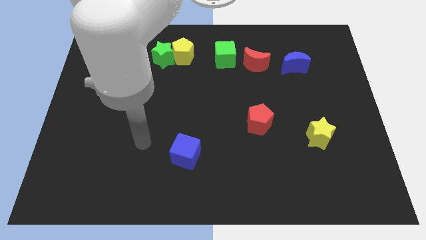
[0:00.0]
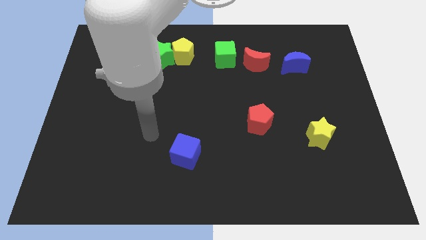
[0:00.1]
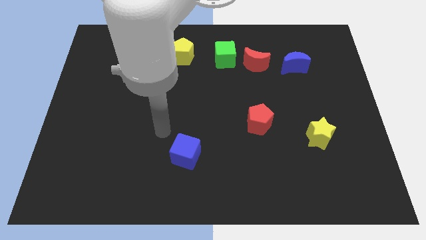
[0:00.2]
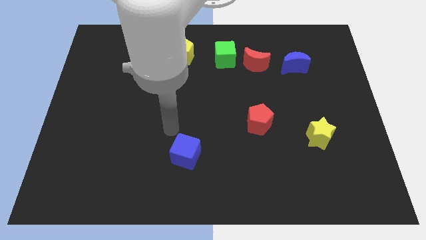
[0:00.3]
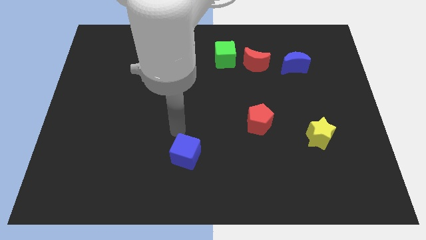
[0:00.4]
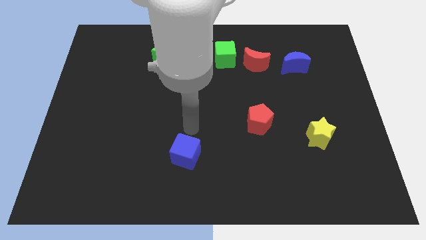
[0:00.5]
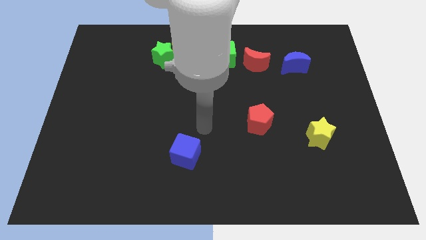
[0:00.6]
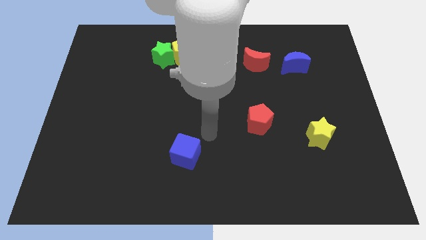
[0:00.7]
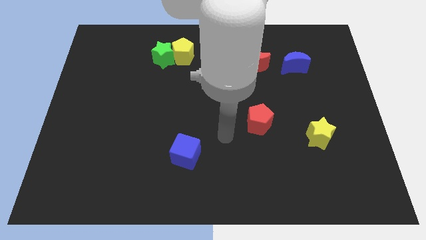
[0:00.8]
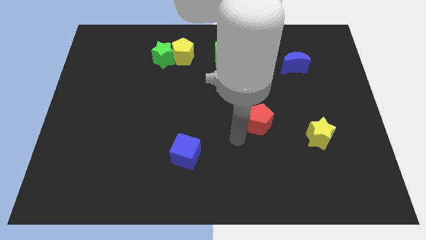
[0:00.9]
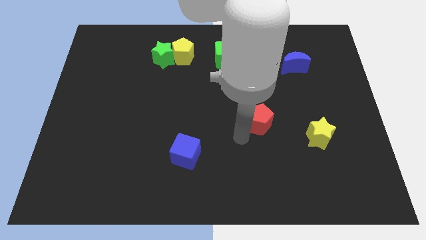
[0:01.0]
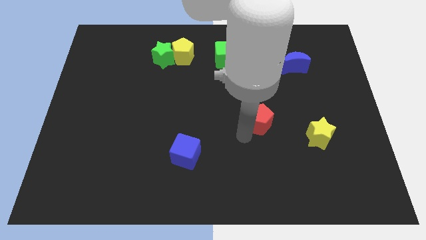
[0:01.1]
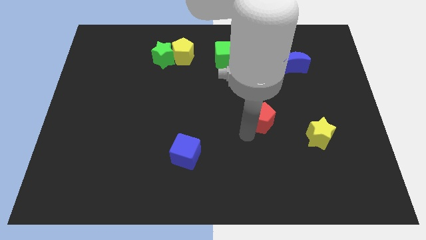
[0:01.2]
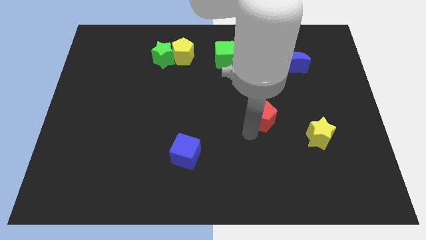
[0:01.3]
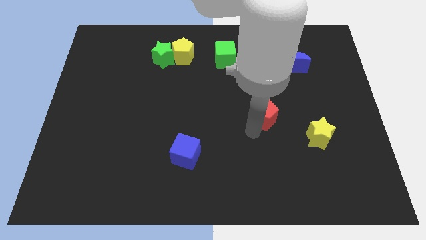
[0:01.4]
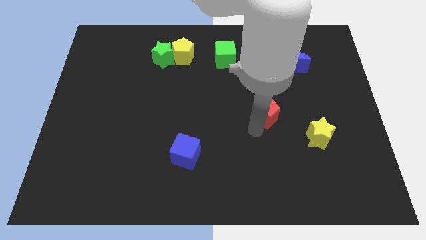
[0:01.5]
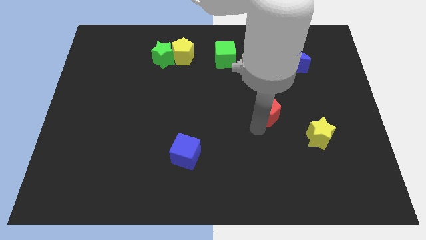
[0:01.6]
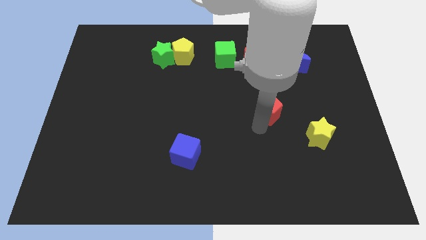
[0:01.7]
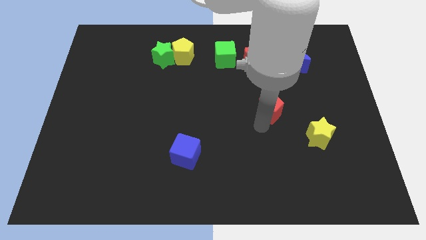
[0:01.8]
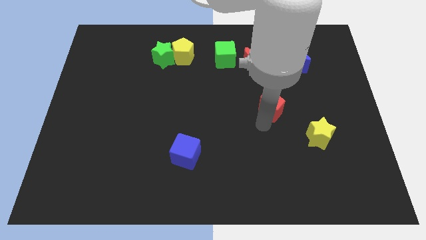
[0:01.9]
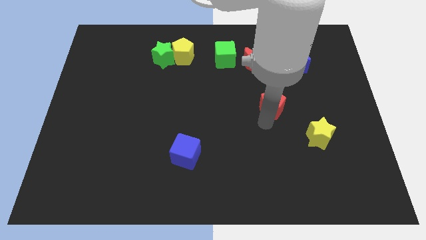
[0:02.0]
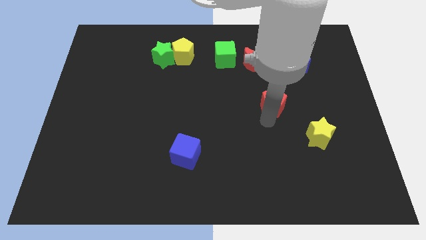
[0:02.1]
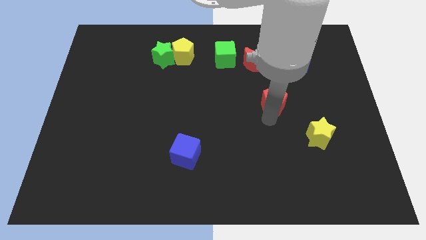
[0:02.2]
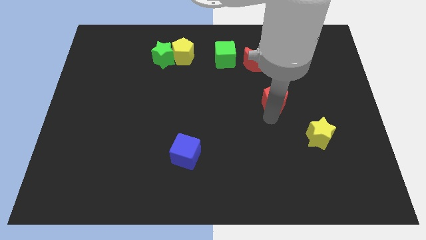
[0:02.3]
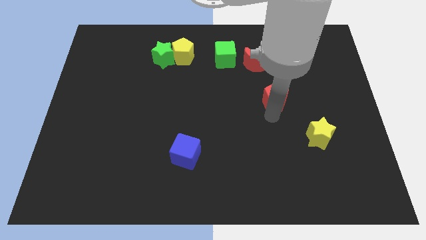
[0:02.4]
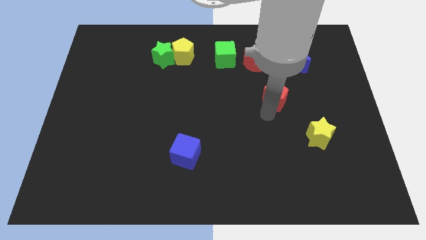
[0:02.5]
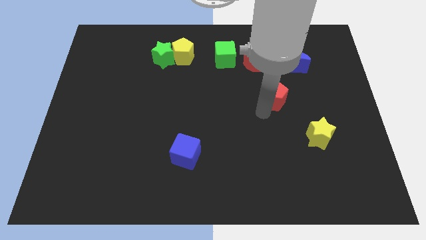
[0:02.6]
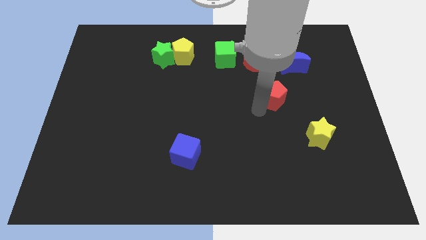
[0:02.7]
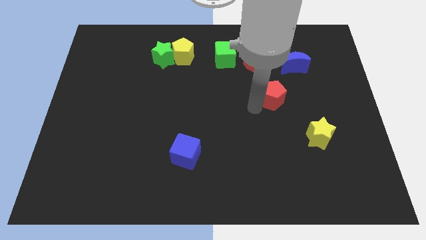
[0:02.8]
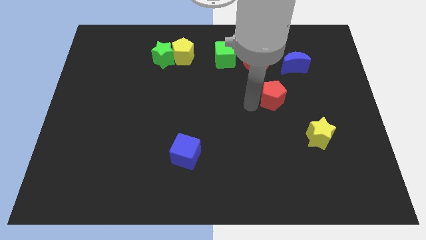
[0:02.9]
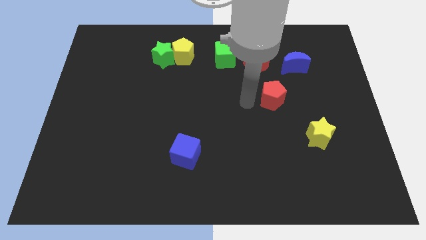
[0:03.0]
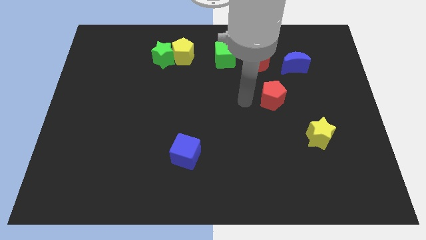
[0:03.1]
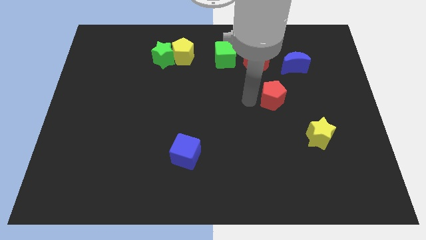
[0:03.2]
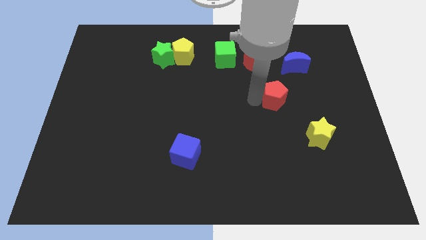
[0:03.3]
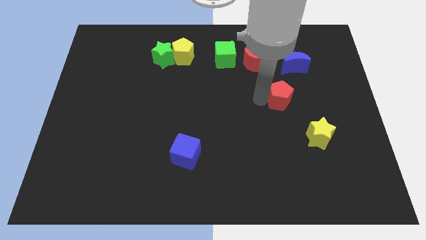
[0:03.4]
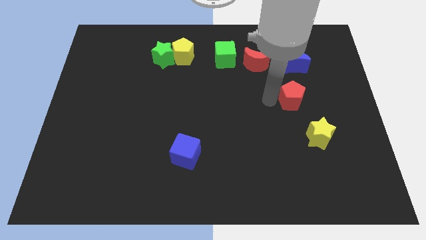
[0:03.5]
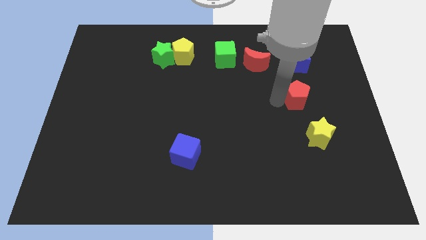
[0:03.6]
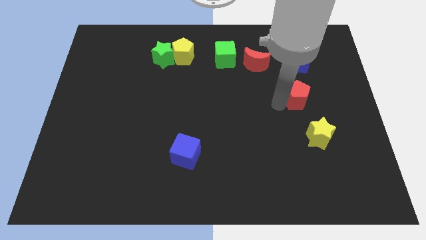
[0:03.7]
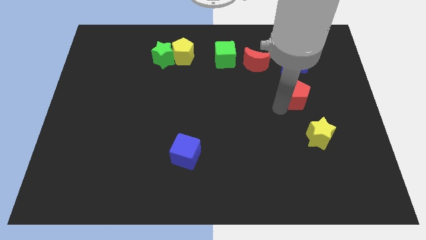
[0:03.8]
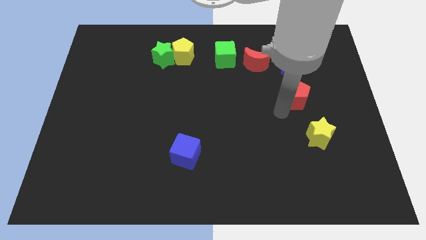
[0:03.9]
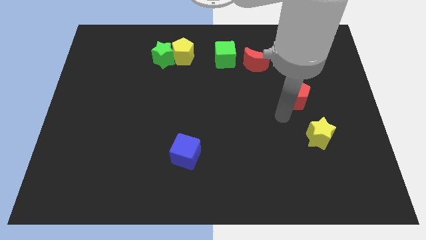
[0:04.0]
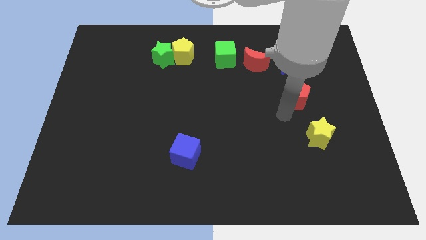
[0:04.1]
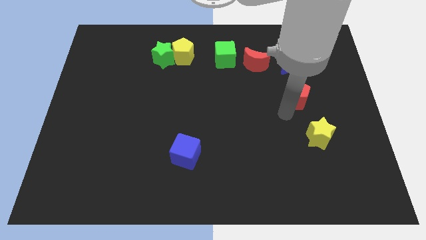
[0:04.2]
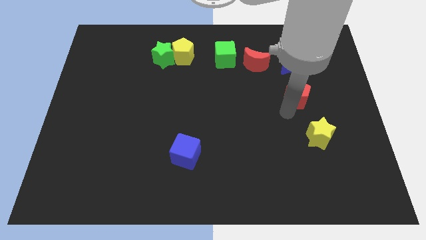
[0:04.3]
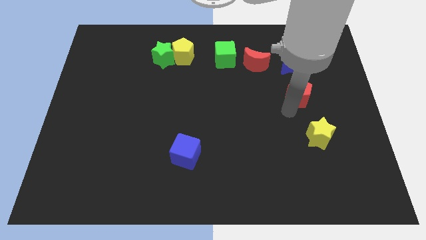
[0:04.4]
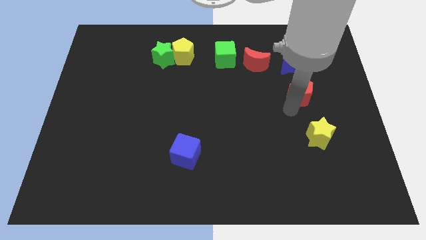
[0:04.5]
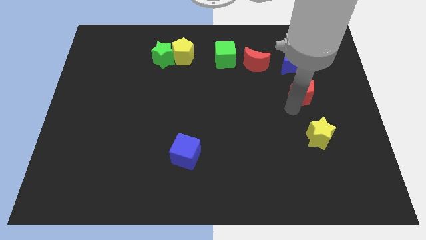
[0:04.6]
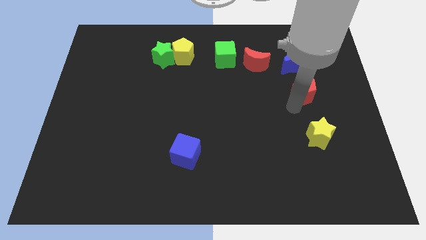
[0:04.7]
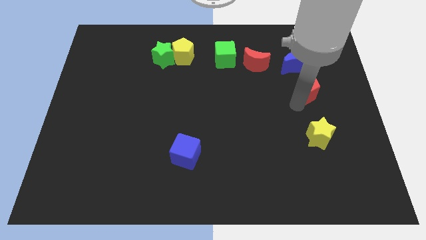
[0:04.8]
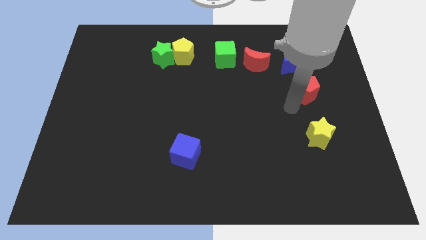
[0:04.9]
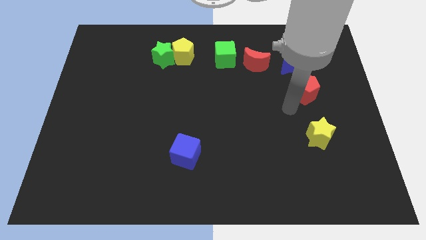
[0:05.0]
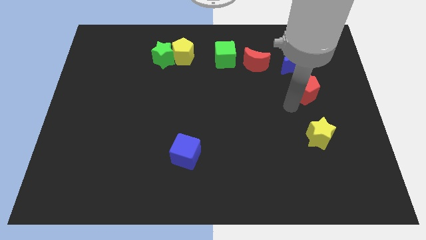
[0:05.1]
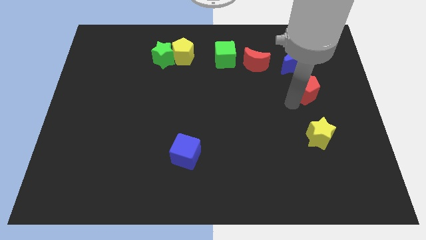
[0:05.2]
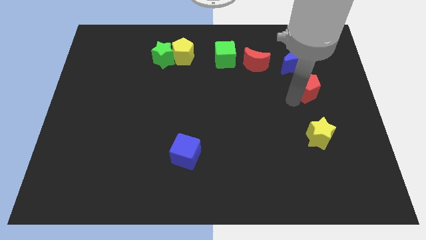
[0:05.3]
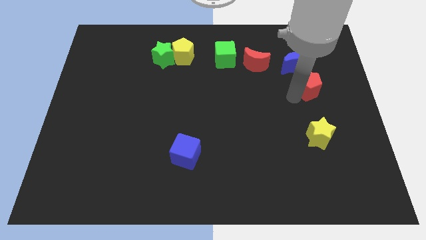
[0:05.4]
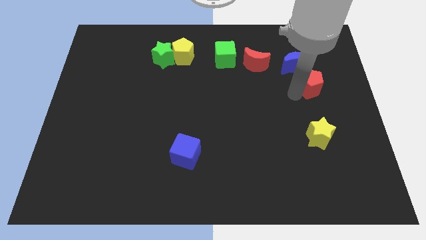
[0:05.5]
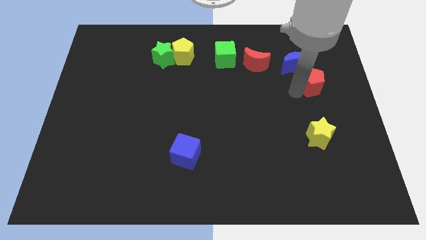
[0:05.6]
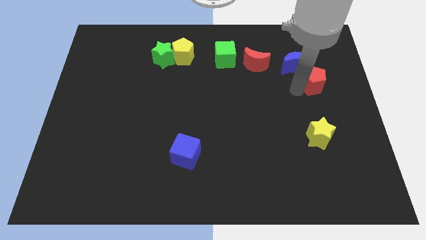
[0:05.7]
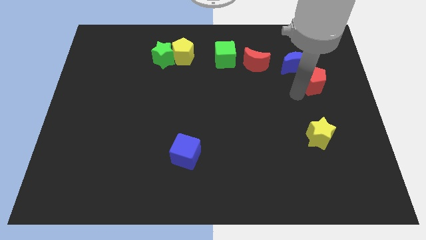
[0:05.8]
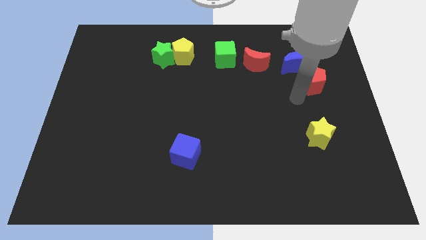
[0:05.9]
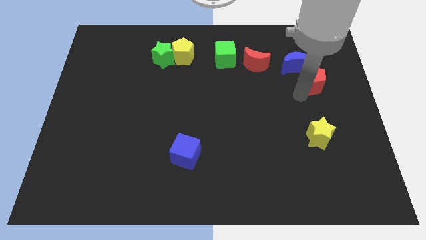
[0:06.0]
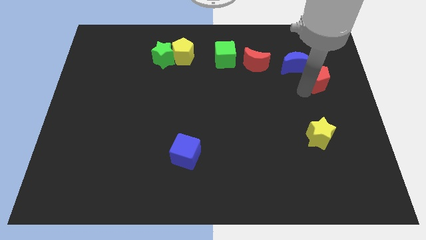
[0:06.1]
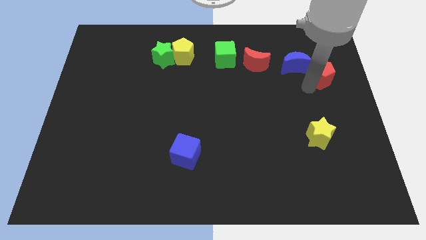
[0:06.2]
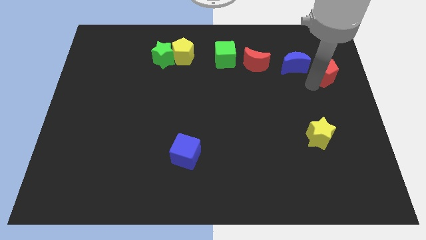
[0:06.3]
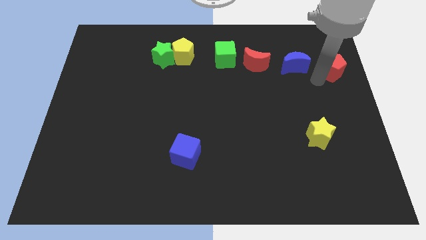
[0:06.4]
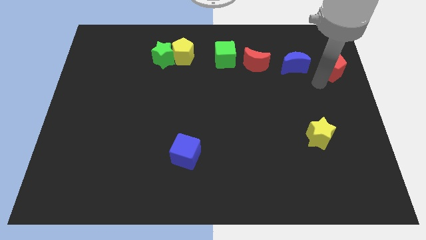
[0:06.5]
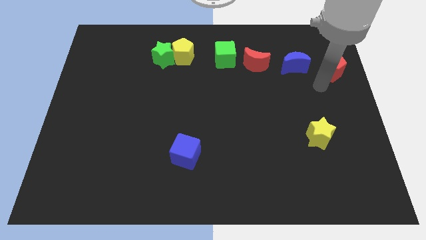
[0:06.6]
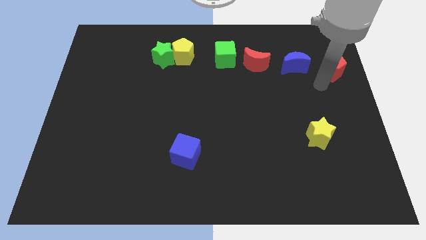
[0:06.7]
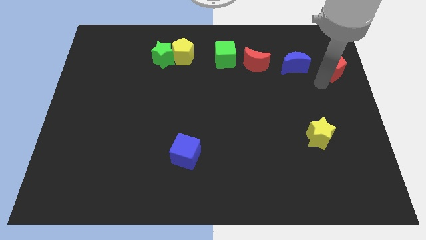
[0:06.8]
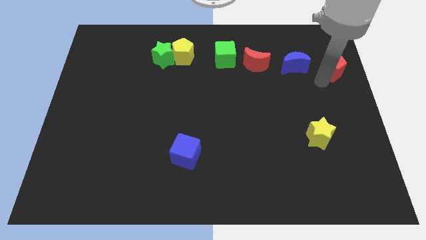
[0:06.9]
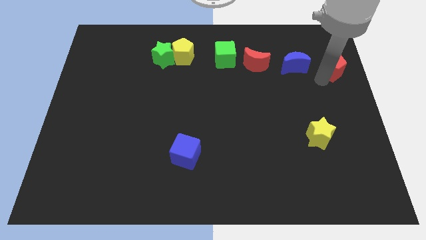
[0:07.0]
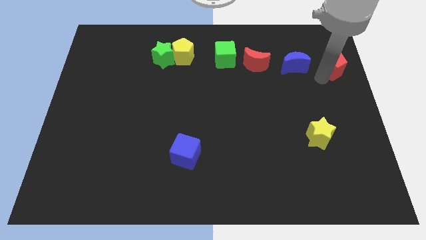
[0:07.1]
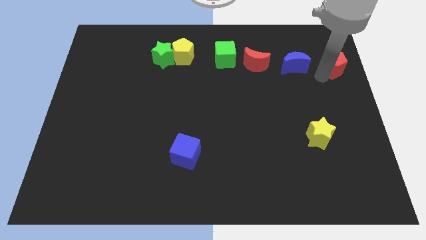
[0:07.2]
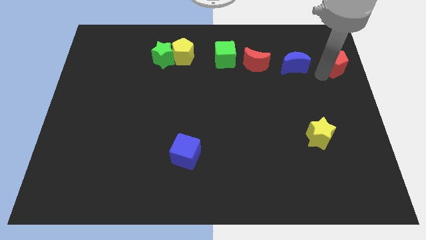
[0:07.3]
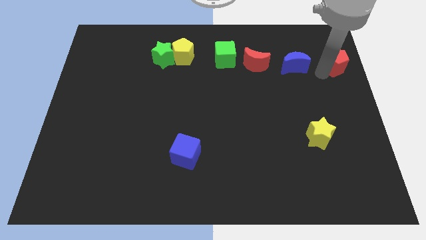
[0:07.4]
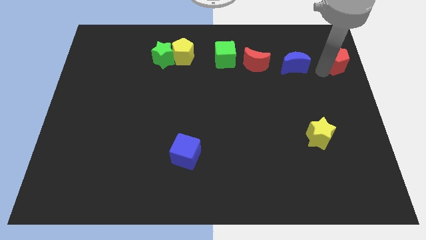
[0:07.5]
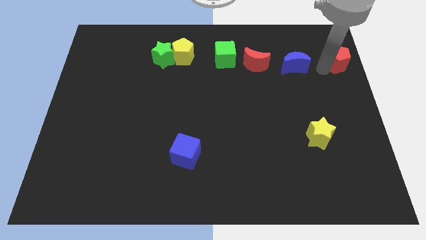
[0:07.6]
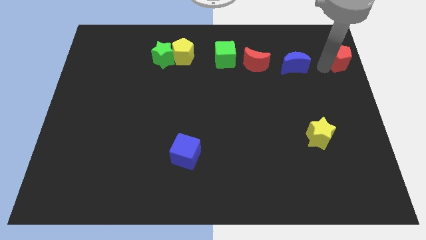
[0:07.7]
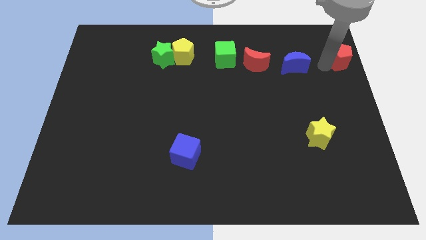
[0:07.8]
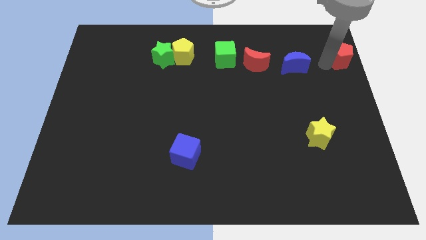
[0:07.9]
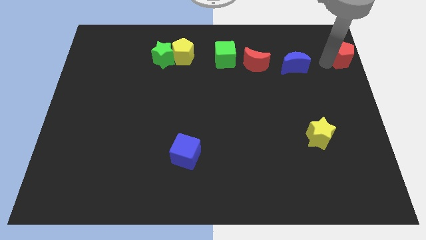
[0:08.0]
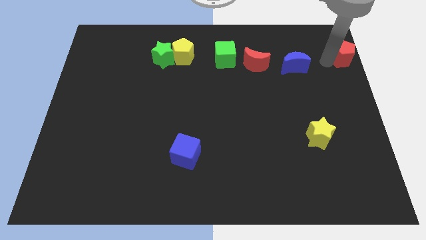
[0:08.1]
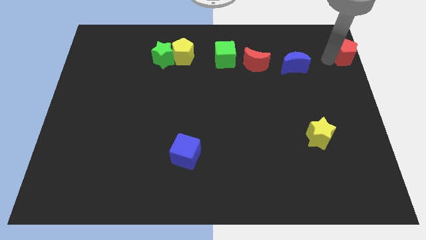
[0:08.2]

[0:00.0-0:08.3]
slide the red pentagon to the top right
